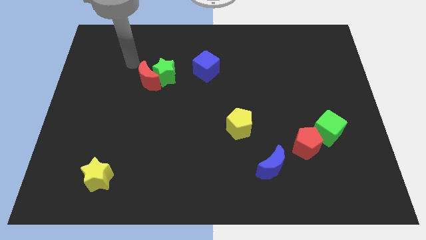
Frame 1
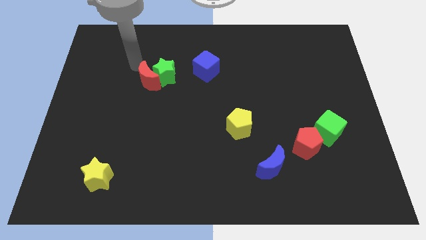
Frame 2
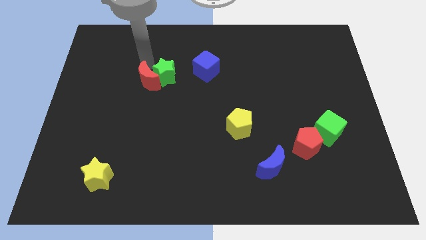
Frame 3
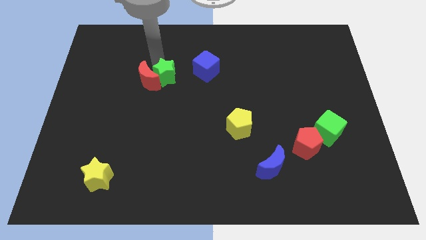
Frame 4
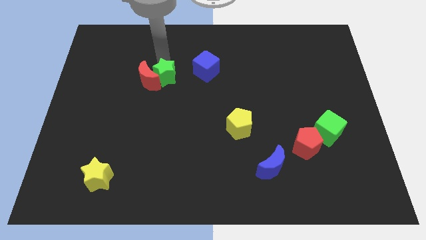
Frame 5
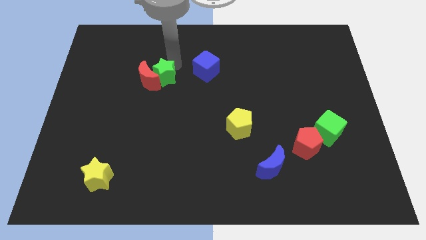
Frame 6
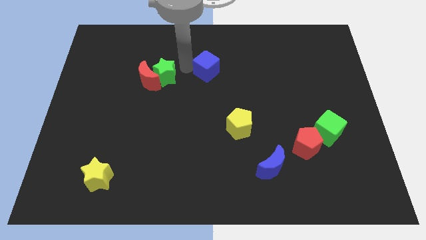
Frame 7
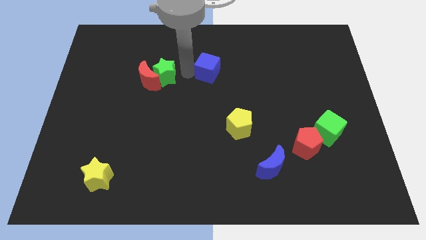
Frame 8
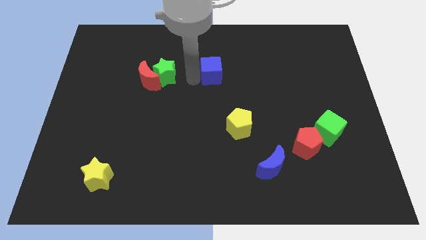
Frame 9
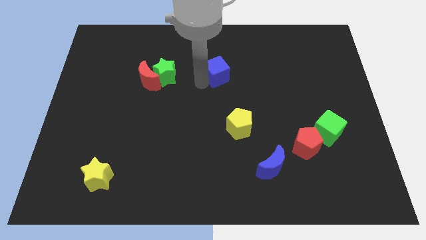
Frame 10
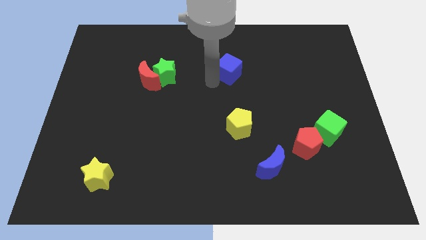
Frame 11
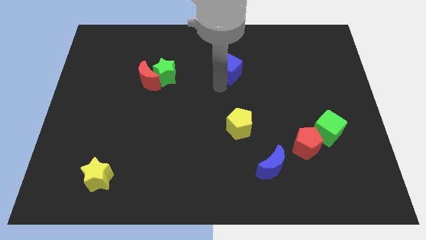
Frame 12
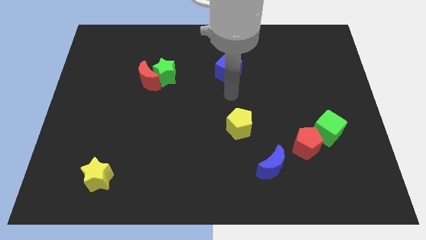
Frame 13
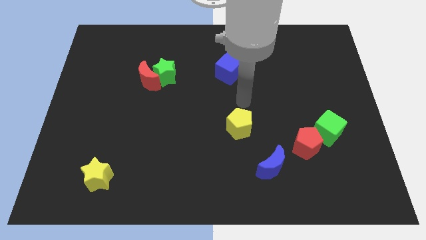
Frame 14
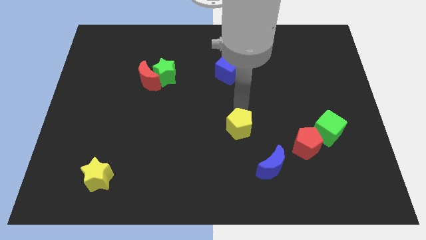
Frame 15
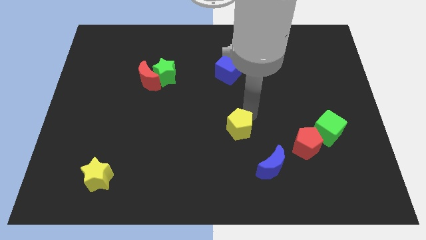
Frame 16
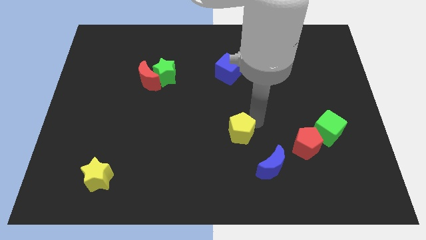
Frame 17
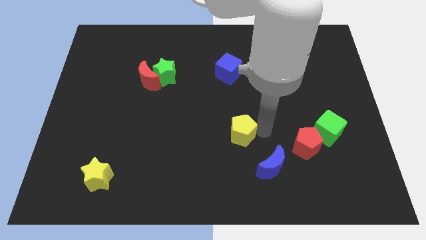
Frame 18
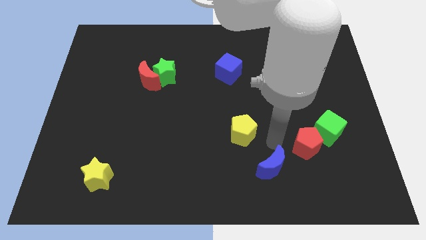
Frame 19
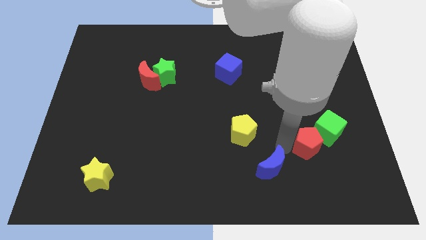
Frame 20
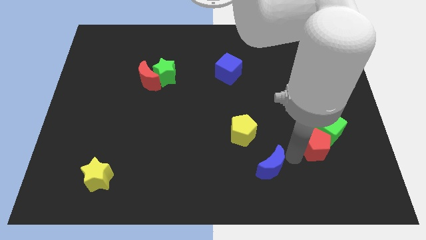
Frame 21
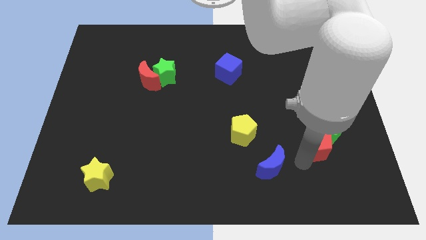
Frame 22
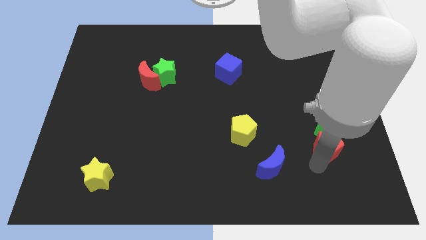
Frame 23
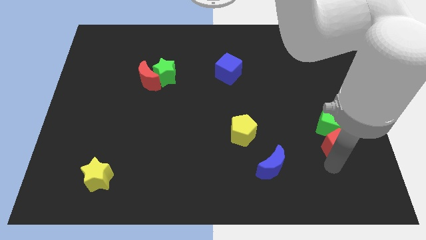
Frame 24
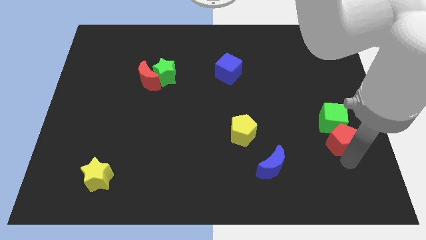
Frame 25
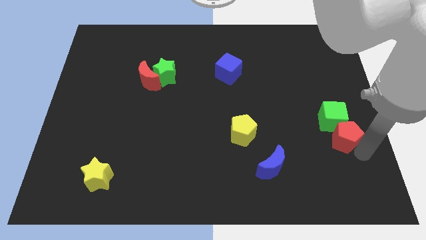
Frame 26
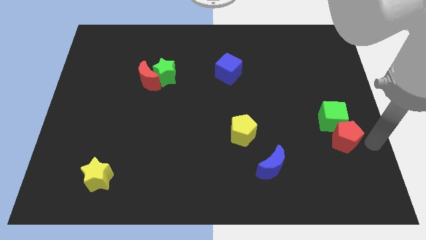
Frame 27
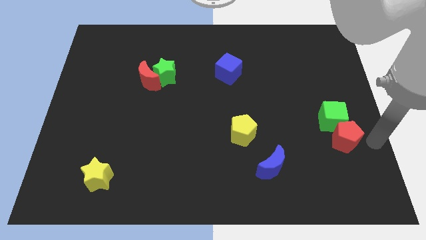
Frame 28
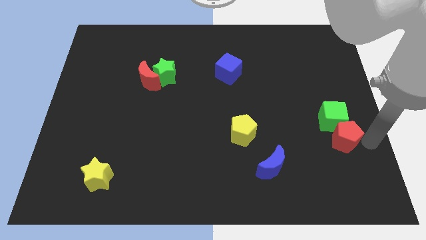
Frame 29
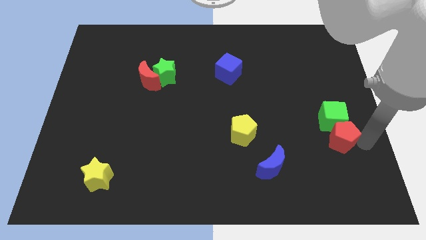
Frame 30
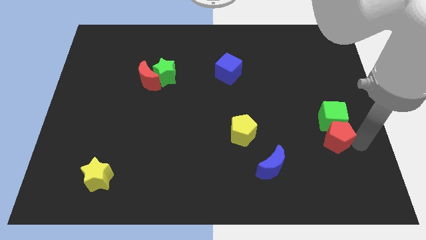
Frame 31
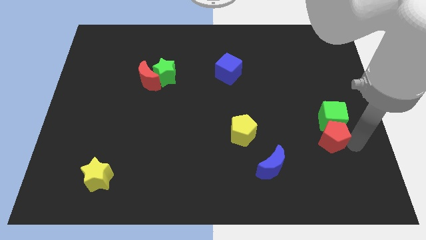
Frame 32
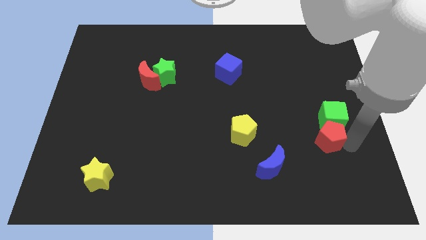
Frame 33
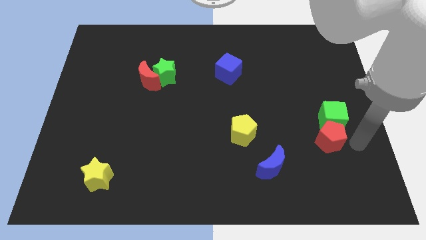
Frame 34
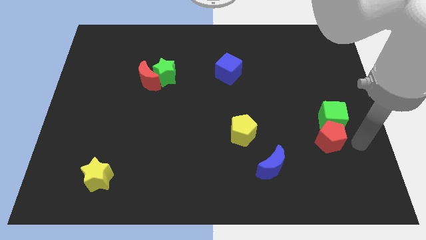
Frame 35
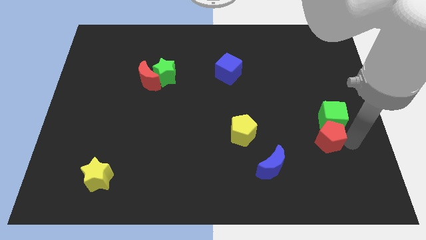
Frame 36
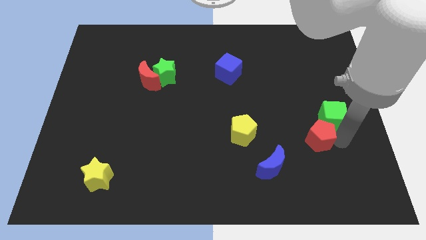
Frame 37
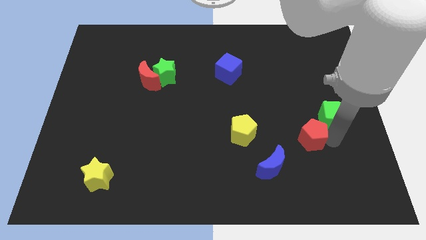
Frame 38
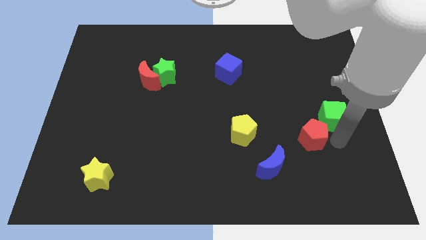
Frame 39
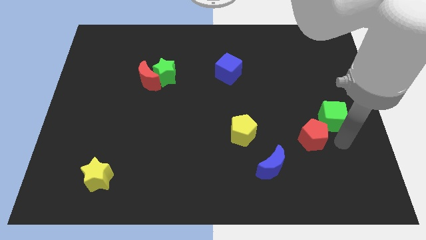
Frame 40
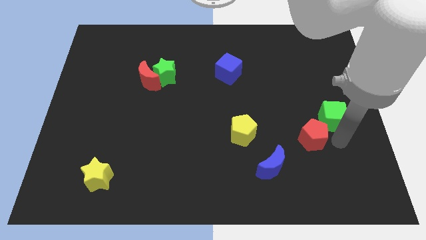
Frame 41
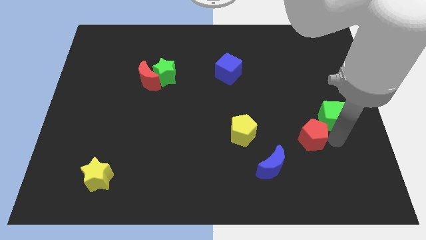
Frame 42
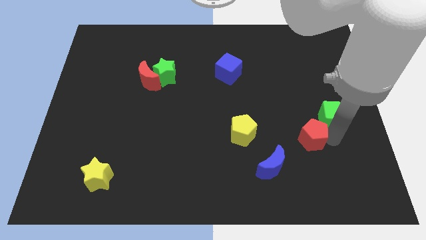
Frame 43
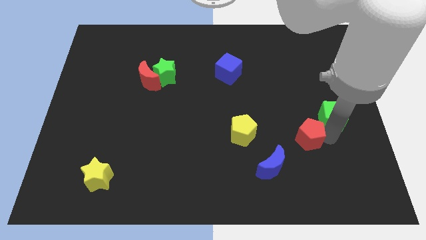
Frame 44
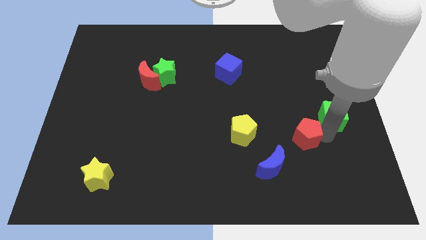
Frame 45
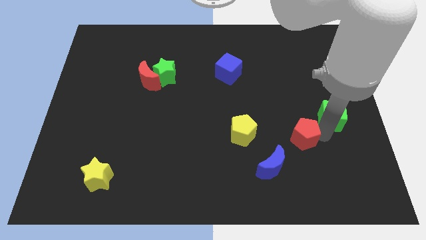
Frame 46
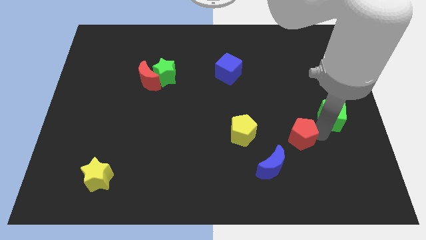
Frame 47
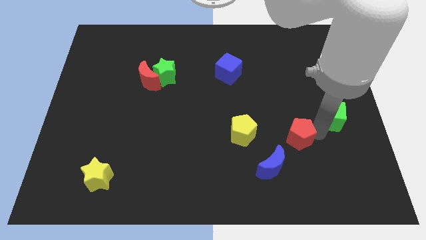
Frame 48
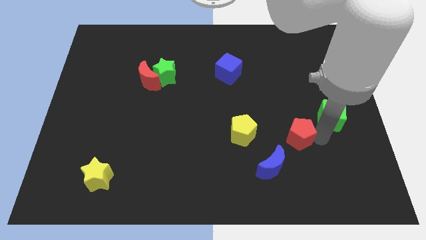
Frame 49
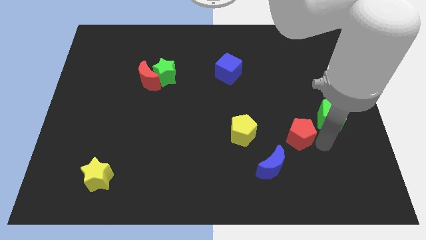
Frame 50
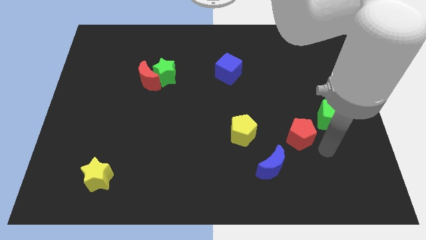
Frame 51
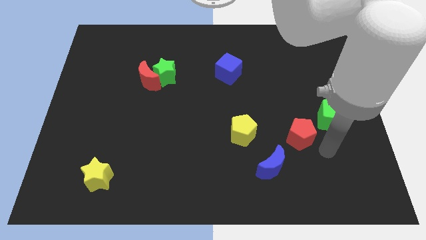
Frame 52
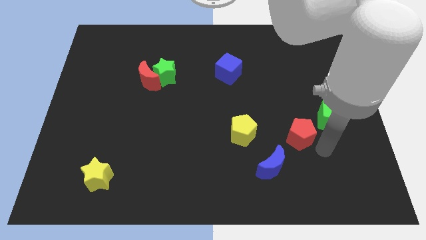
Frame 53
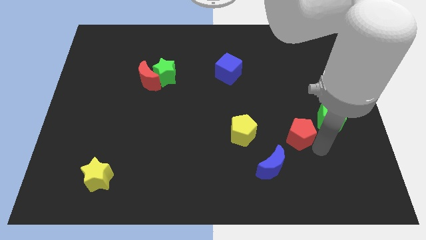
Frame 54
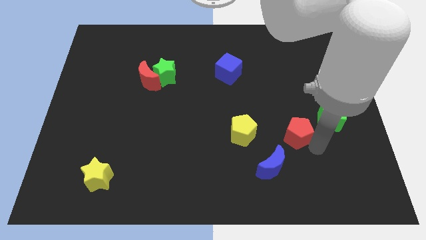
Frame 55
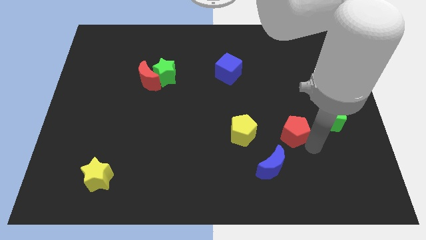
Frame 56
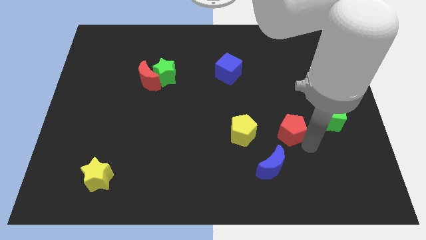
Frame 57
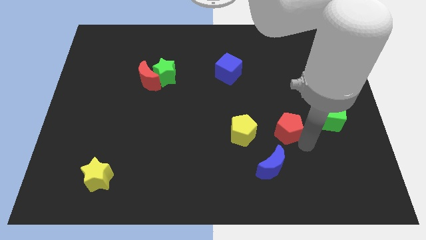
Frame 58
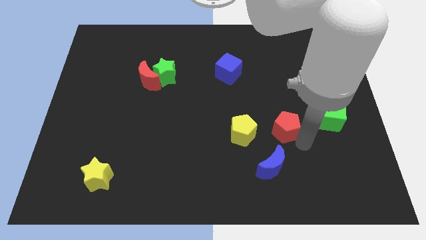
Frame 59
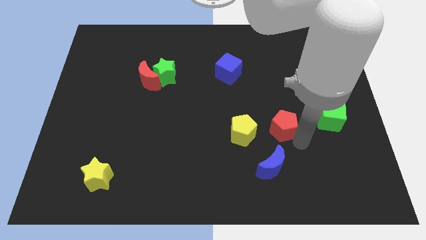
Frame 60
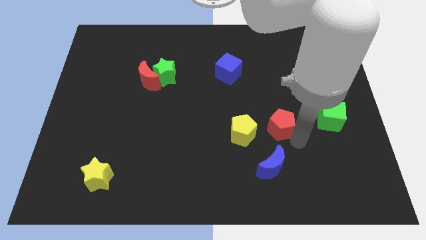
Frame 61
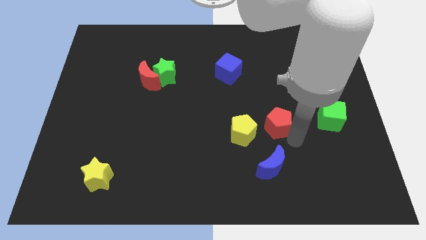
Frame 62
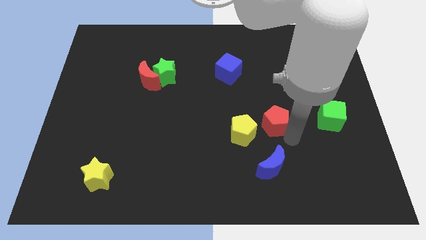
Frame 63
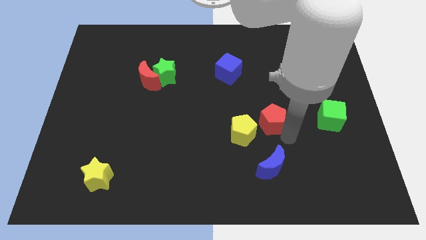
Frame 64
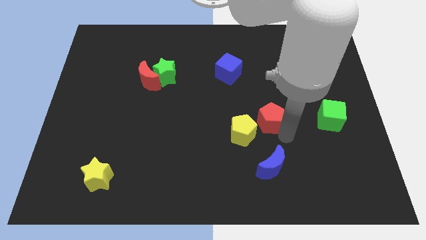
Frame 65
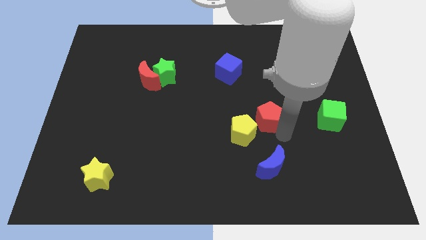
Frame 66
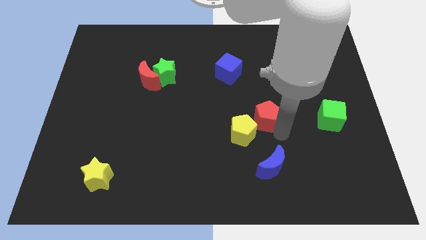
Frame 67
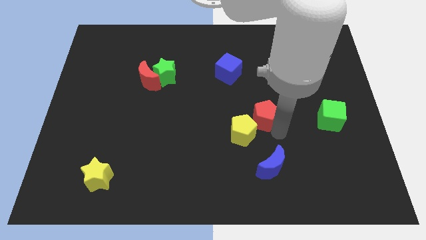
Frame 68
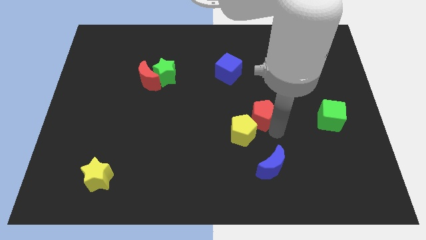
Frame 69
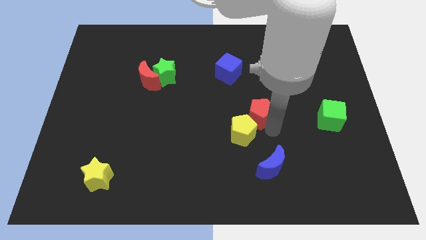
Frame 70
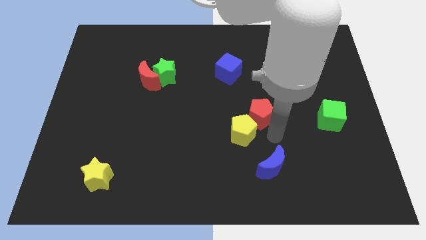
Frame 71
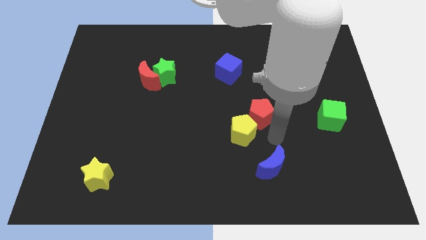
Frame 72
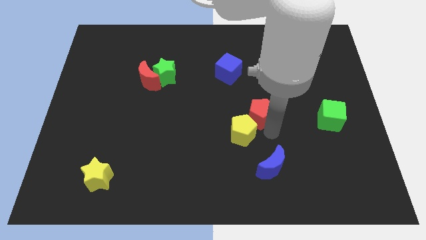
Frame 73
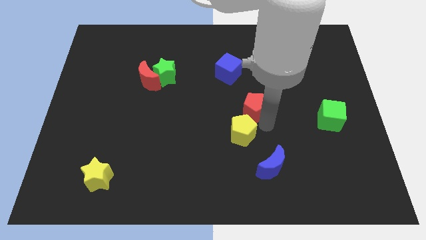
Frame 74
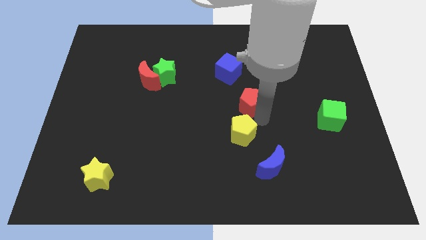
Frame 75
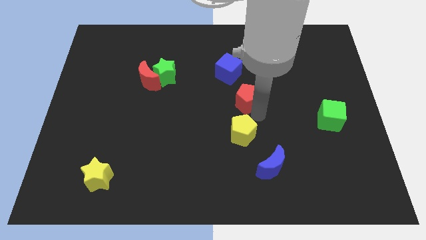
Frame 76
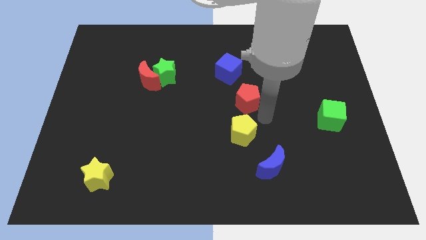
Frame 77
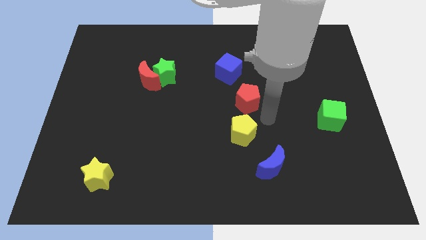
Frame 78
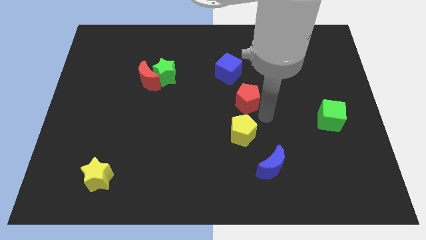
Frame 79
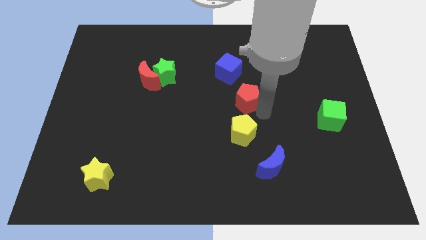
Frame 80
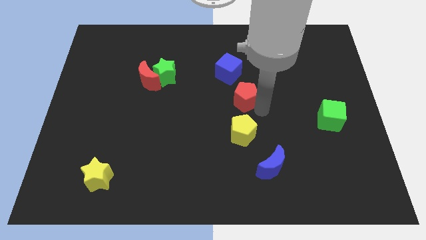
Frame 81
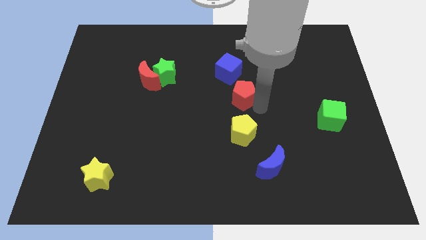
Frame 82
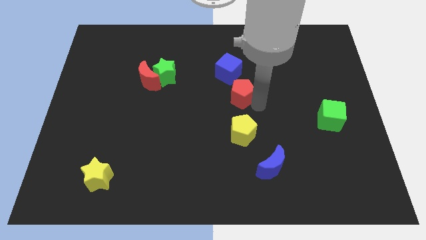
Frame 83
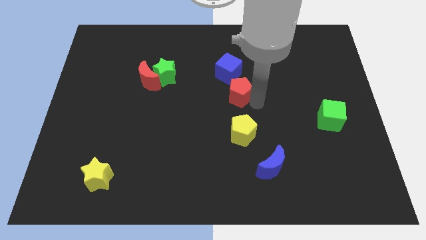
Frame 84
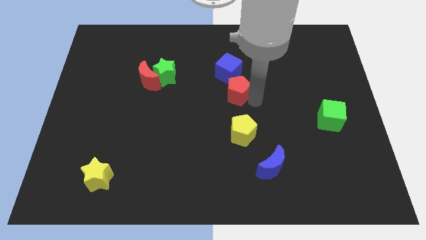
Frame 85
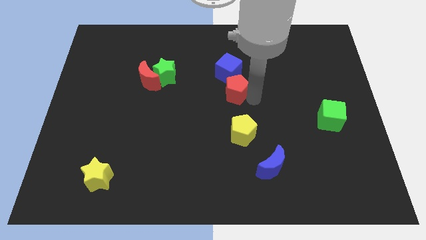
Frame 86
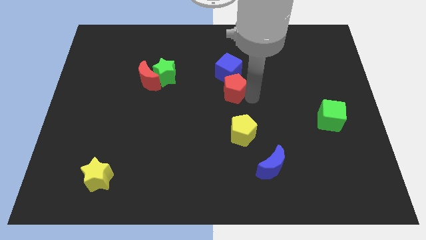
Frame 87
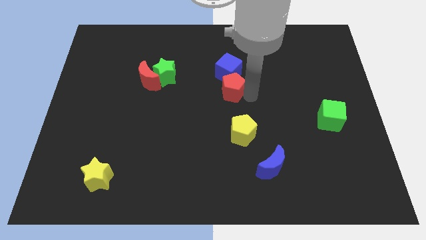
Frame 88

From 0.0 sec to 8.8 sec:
move the red pentagon close to the blue cube
